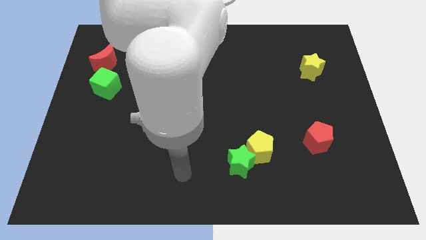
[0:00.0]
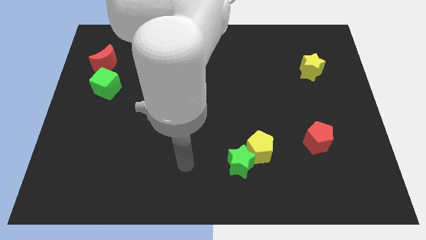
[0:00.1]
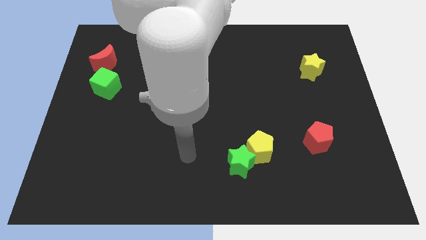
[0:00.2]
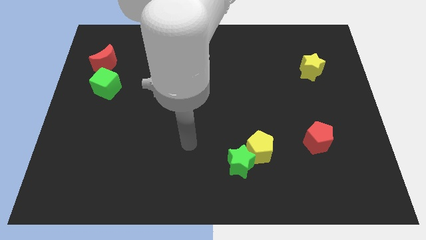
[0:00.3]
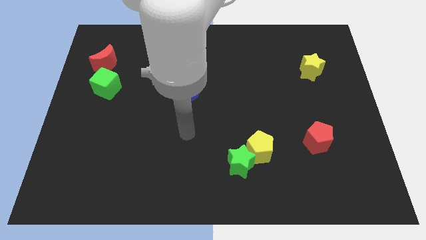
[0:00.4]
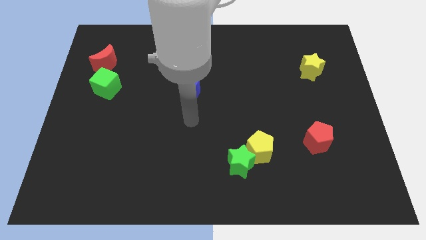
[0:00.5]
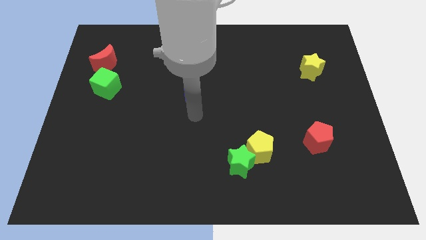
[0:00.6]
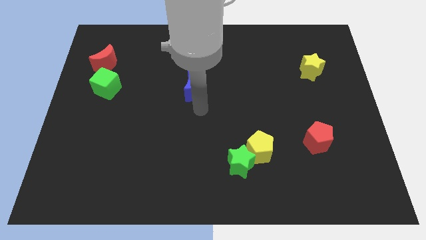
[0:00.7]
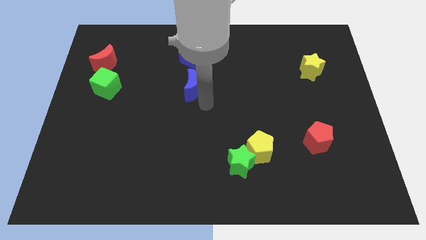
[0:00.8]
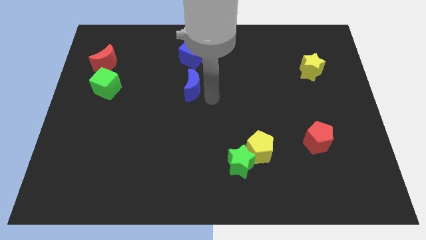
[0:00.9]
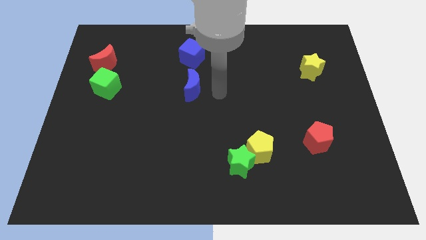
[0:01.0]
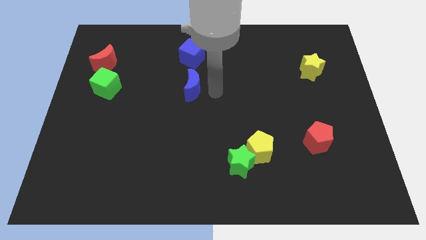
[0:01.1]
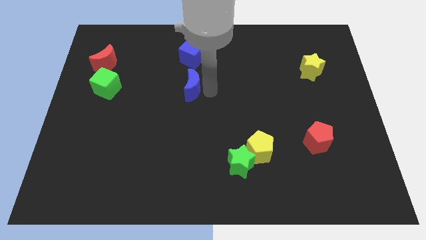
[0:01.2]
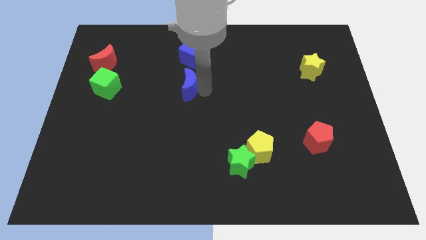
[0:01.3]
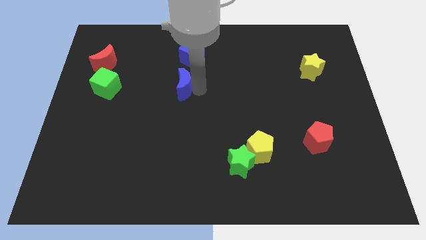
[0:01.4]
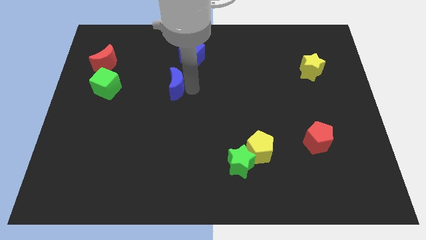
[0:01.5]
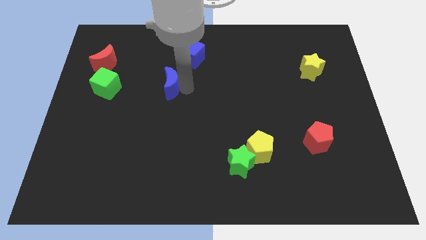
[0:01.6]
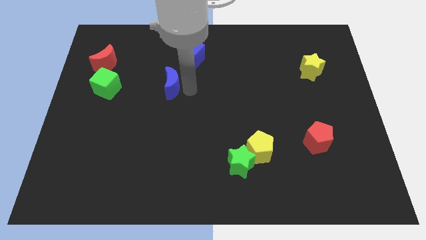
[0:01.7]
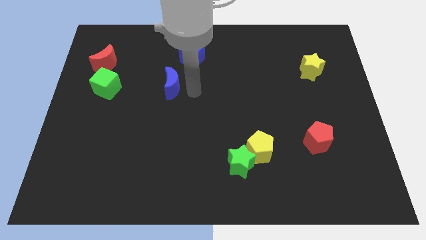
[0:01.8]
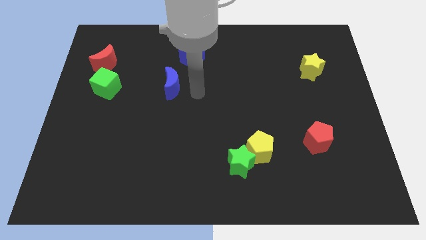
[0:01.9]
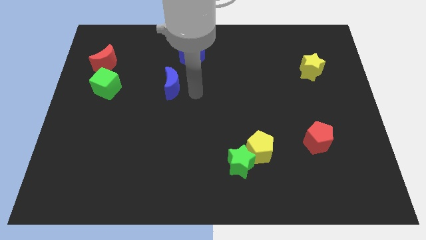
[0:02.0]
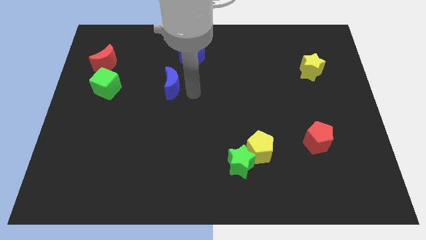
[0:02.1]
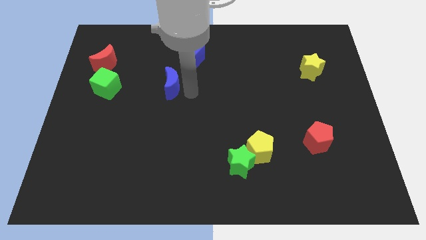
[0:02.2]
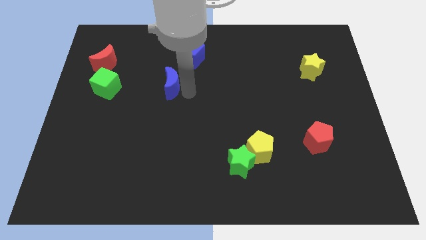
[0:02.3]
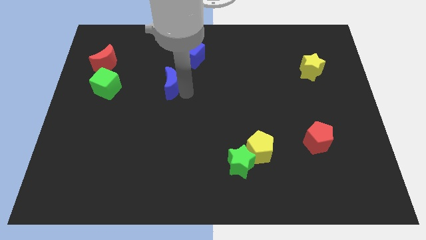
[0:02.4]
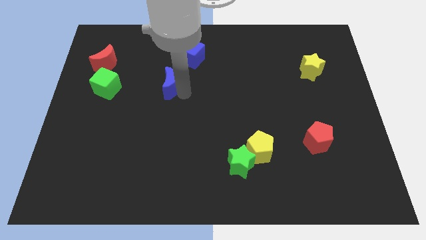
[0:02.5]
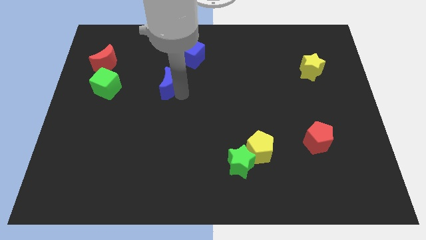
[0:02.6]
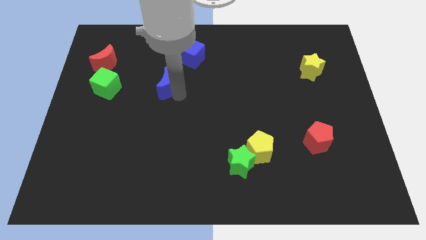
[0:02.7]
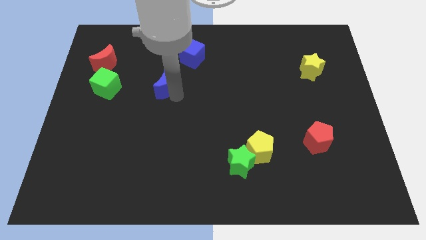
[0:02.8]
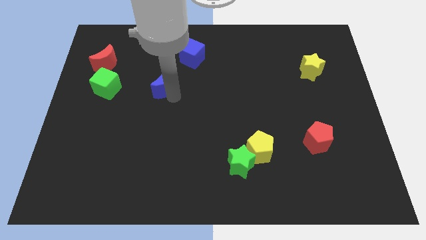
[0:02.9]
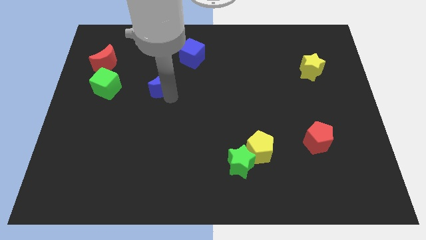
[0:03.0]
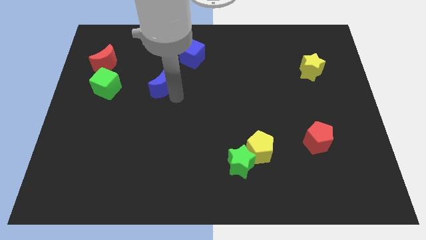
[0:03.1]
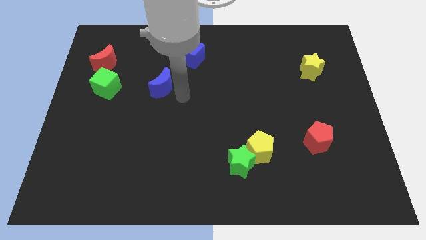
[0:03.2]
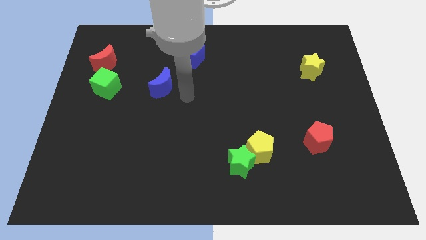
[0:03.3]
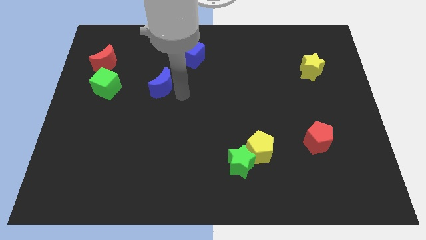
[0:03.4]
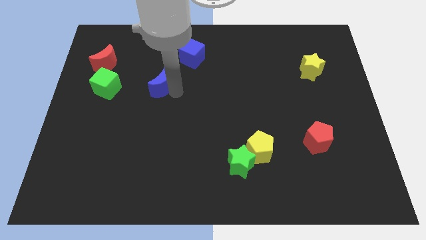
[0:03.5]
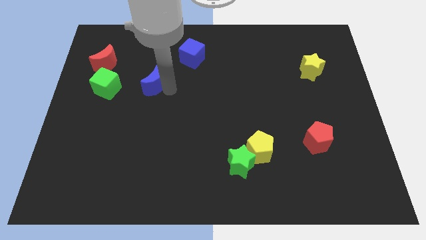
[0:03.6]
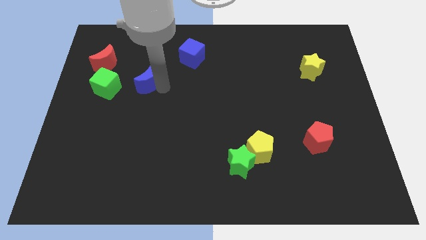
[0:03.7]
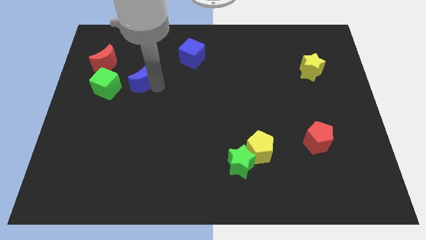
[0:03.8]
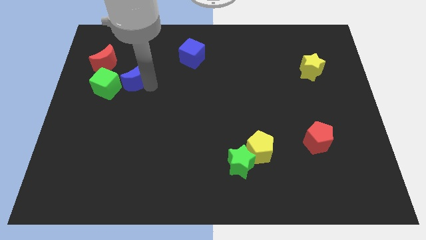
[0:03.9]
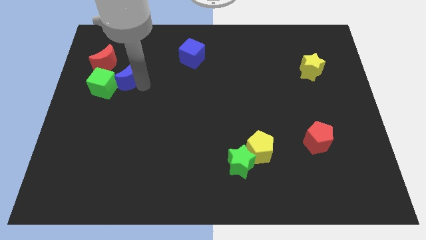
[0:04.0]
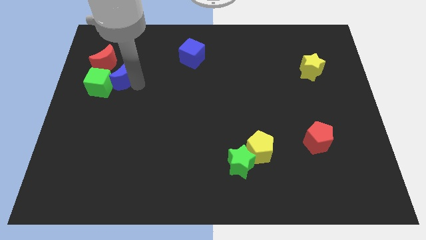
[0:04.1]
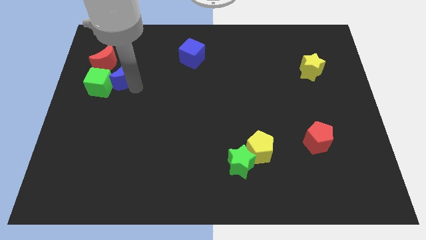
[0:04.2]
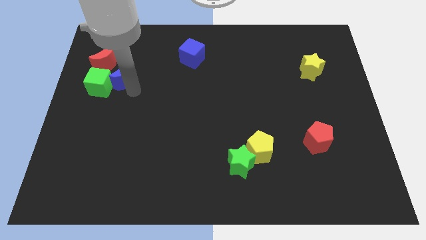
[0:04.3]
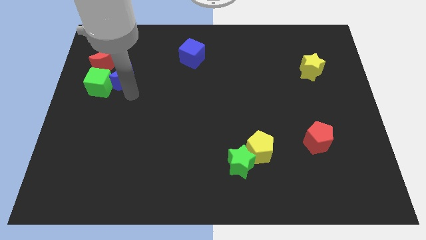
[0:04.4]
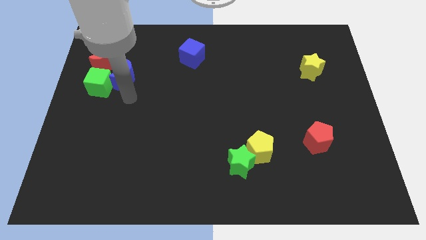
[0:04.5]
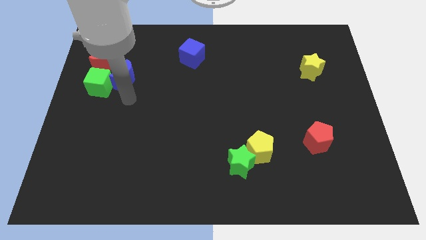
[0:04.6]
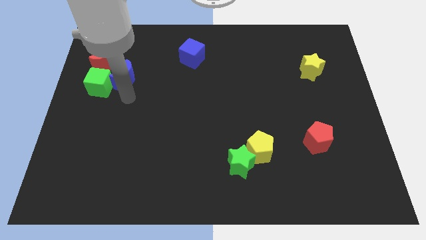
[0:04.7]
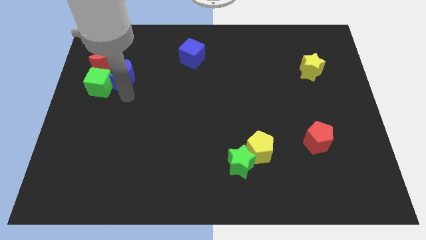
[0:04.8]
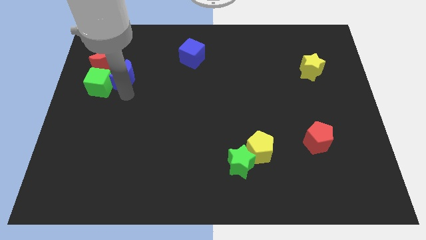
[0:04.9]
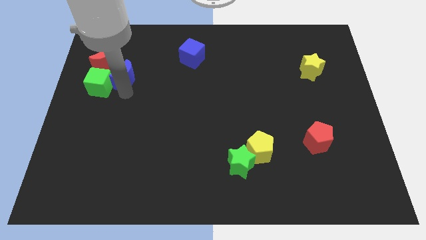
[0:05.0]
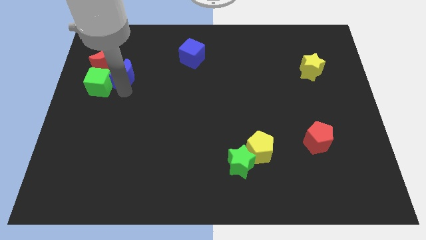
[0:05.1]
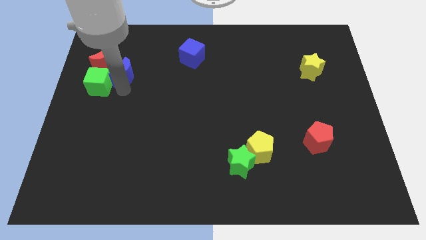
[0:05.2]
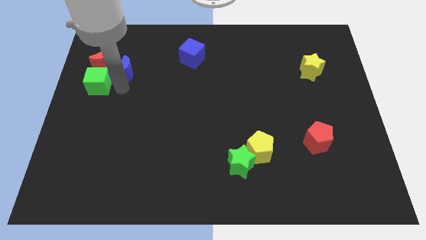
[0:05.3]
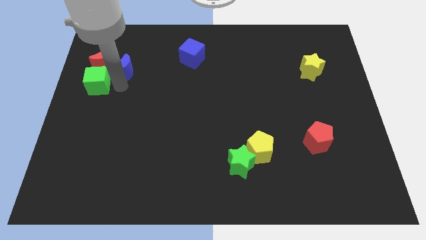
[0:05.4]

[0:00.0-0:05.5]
slide the blue moon next to the red moon

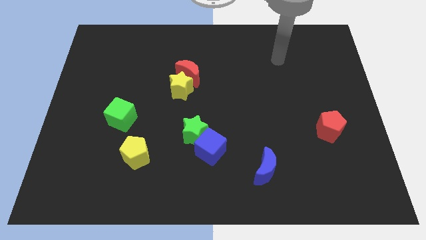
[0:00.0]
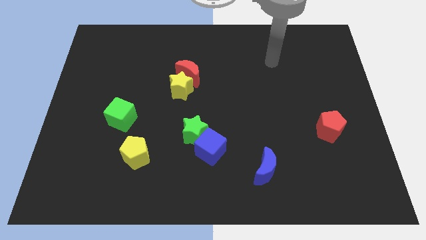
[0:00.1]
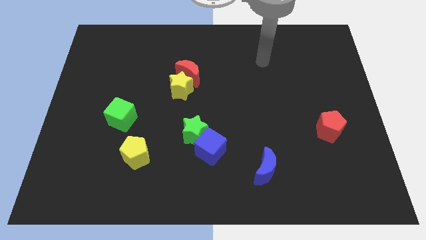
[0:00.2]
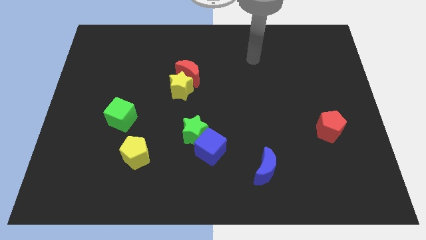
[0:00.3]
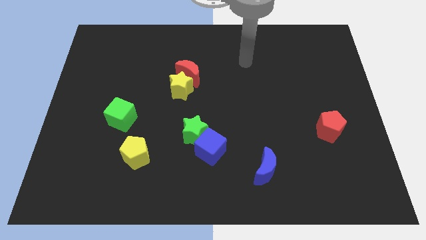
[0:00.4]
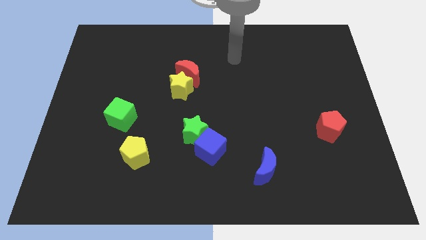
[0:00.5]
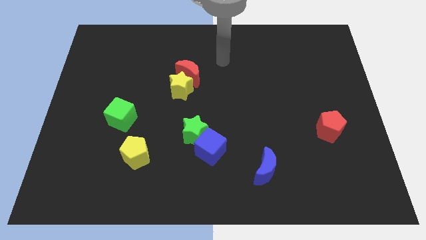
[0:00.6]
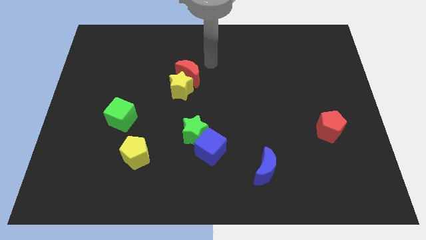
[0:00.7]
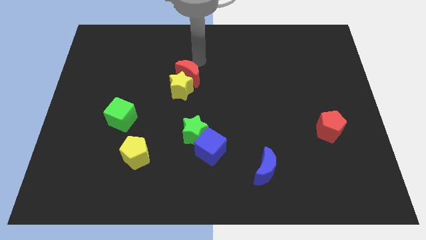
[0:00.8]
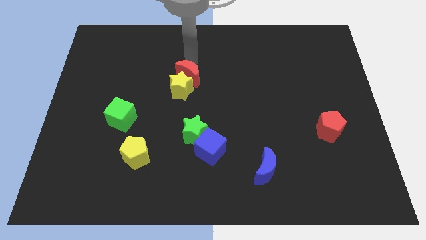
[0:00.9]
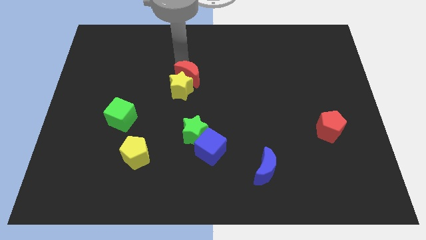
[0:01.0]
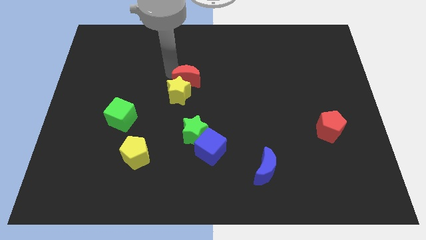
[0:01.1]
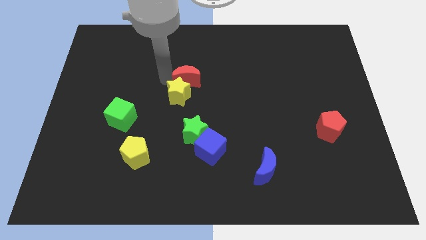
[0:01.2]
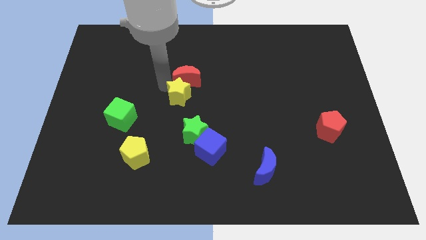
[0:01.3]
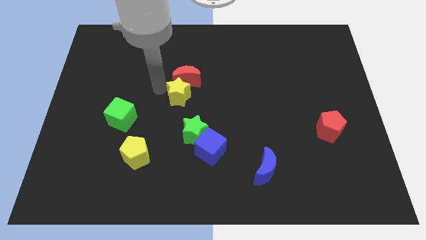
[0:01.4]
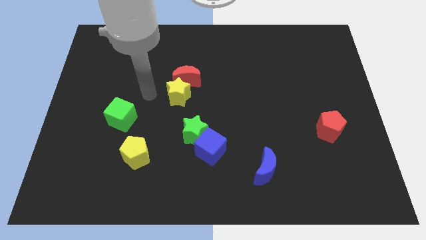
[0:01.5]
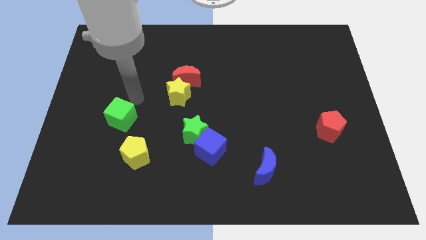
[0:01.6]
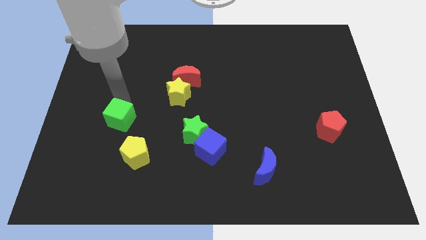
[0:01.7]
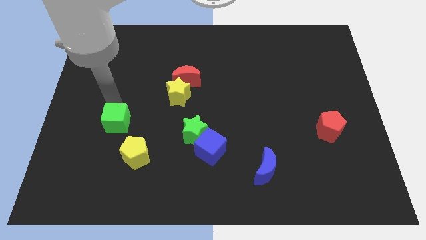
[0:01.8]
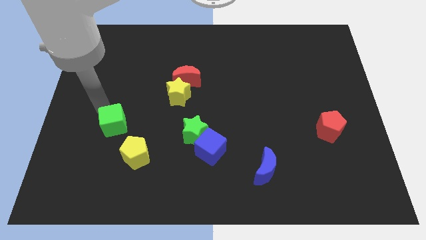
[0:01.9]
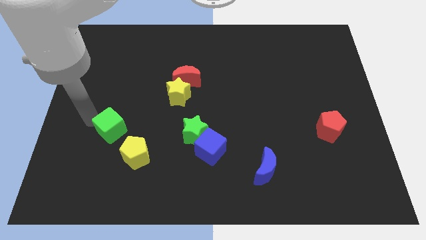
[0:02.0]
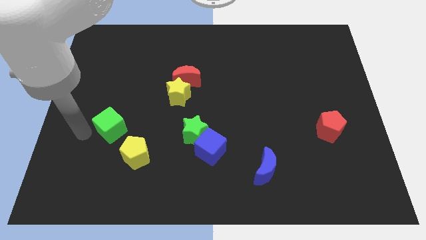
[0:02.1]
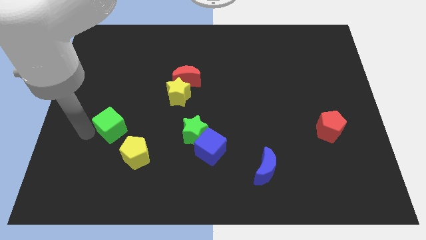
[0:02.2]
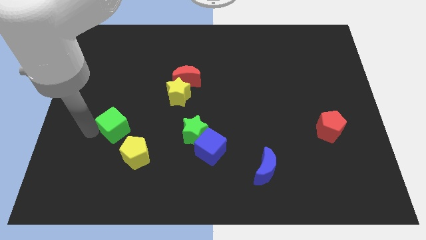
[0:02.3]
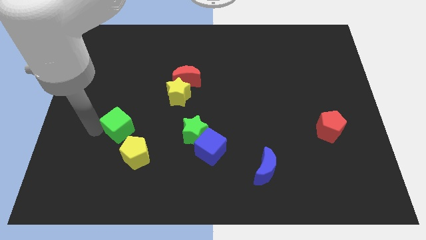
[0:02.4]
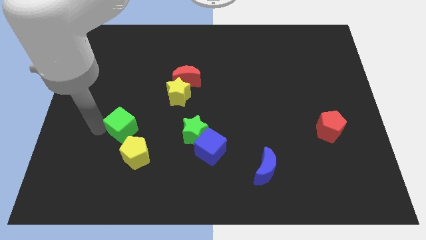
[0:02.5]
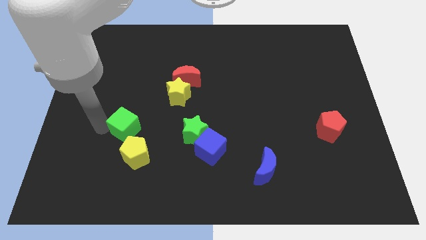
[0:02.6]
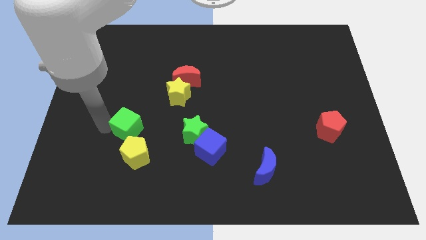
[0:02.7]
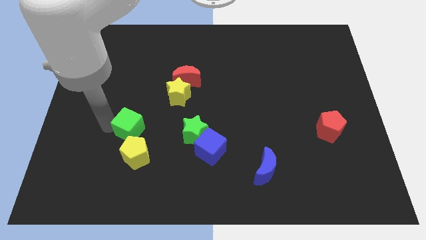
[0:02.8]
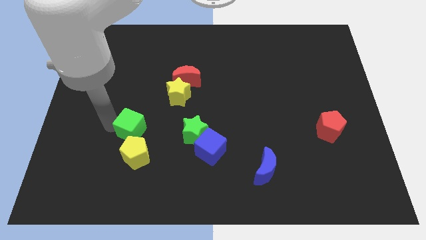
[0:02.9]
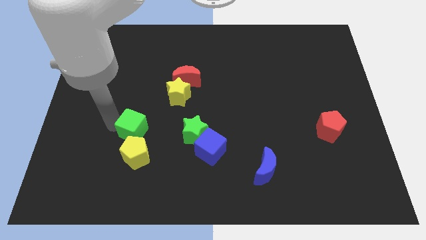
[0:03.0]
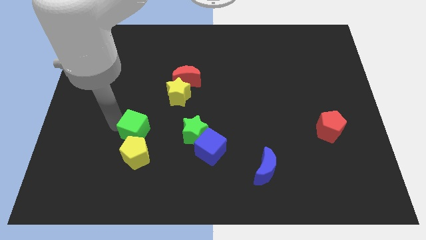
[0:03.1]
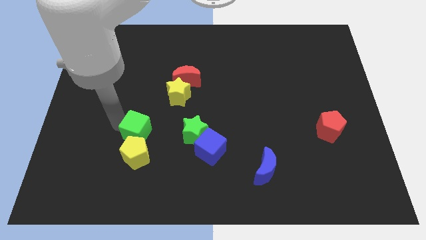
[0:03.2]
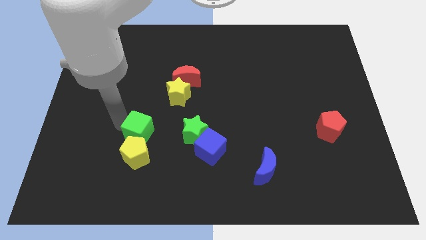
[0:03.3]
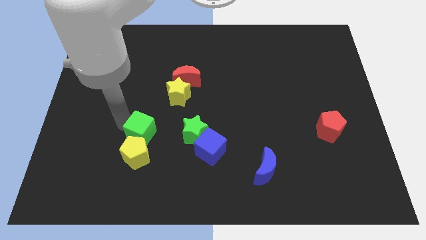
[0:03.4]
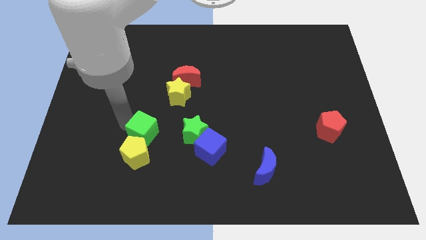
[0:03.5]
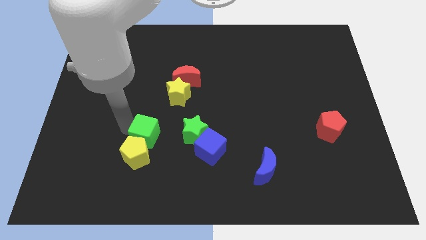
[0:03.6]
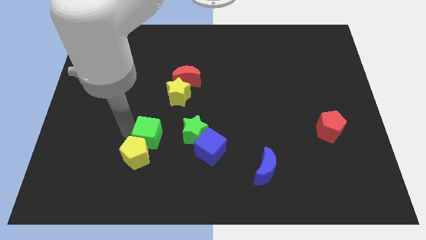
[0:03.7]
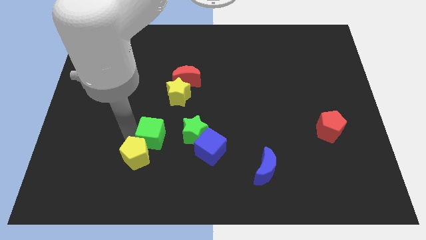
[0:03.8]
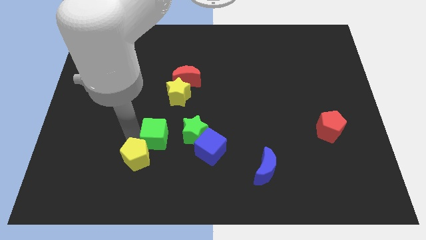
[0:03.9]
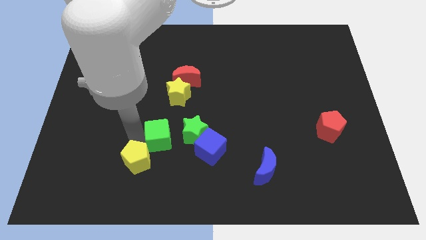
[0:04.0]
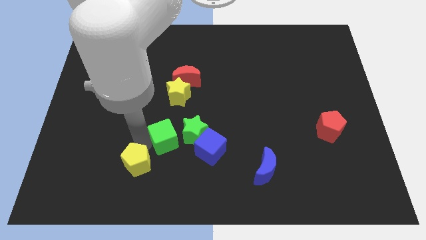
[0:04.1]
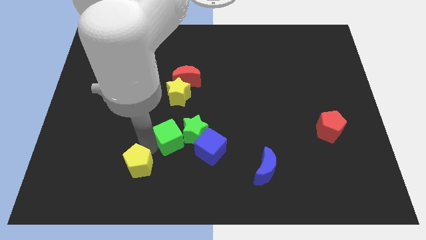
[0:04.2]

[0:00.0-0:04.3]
slide the green cube towards the green star
